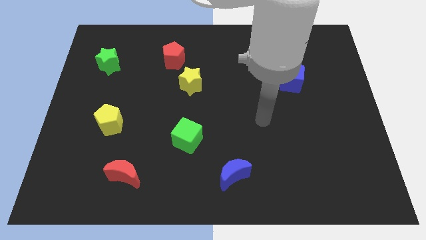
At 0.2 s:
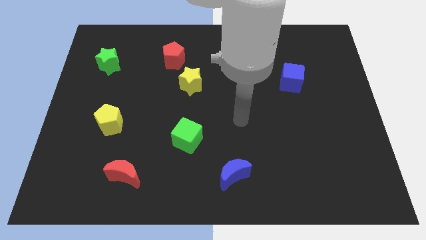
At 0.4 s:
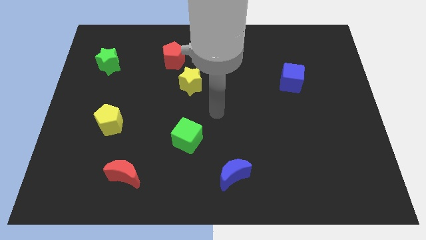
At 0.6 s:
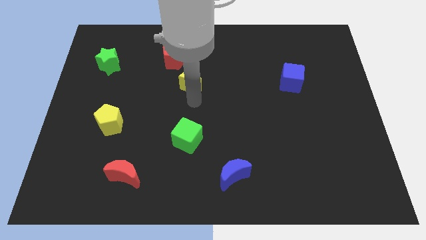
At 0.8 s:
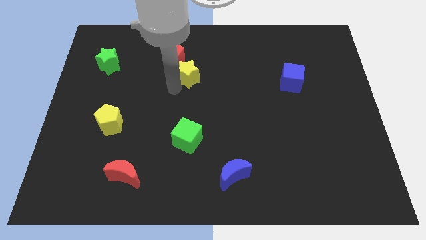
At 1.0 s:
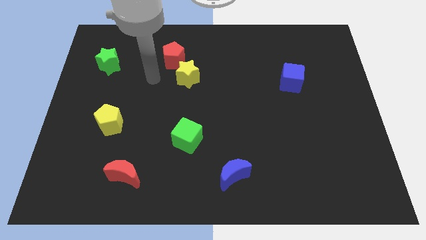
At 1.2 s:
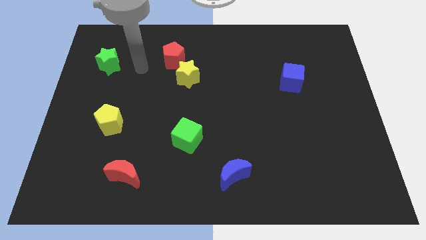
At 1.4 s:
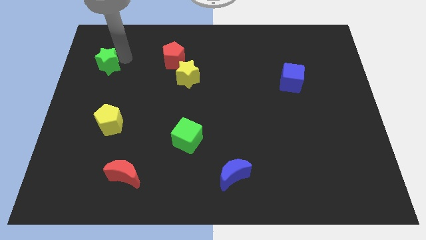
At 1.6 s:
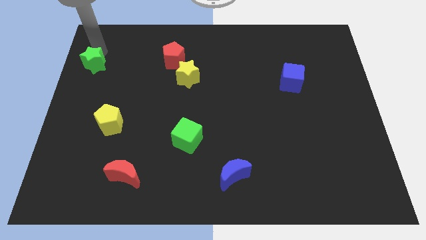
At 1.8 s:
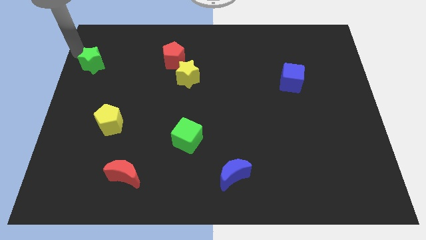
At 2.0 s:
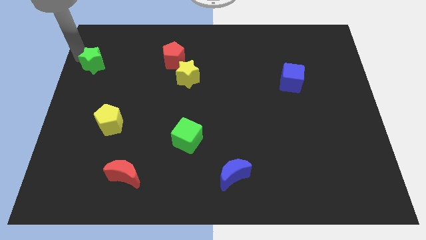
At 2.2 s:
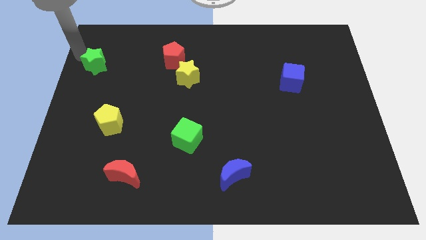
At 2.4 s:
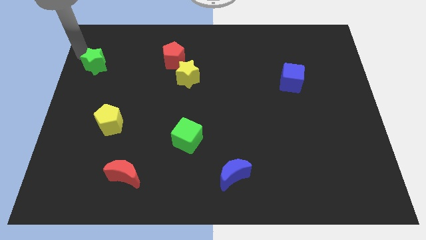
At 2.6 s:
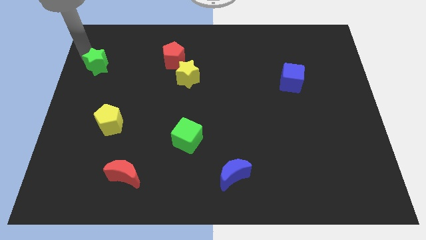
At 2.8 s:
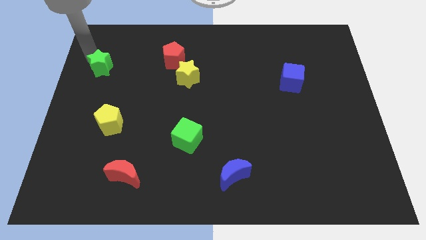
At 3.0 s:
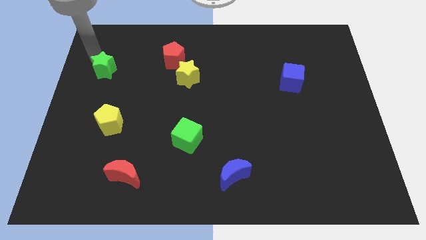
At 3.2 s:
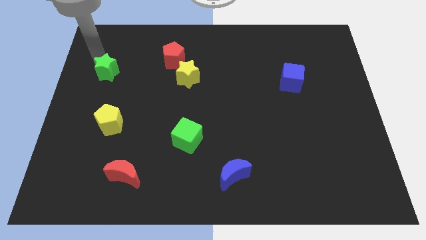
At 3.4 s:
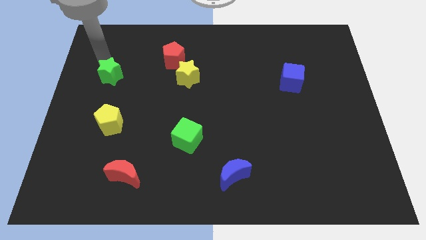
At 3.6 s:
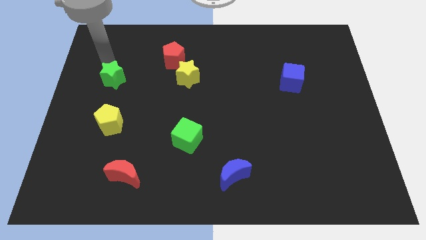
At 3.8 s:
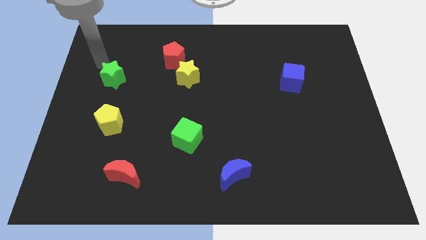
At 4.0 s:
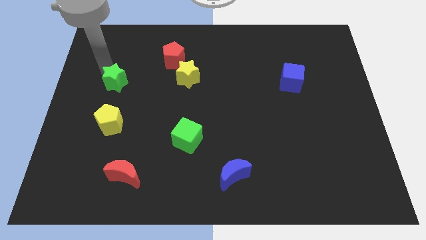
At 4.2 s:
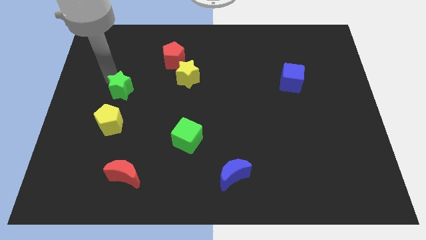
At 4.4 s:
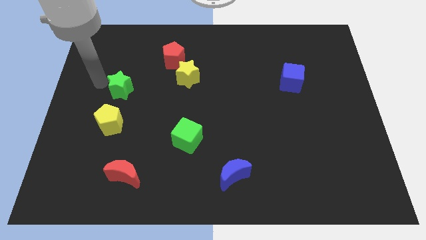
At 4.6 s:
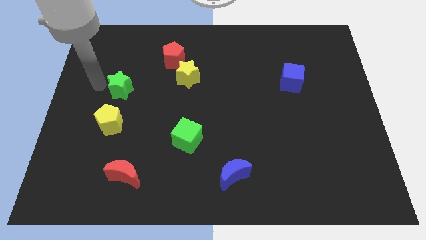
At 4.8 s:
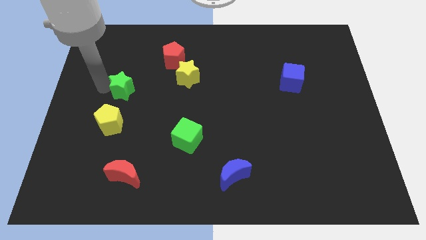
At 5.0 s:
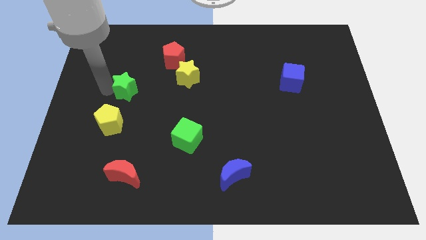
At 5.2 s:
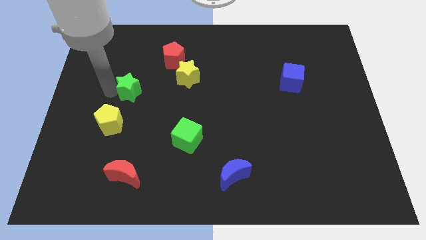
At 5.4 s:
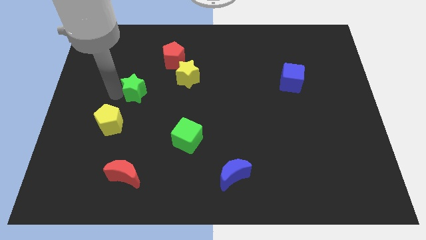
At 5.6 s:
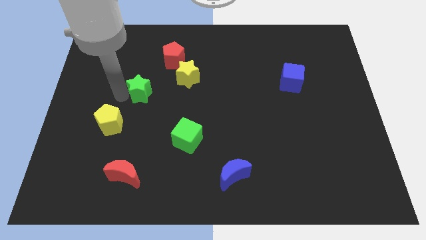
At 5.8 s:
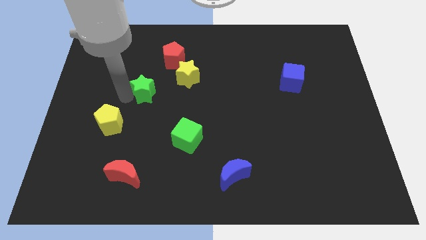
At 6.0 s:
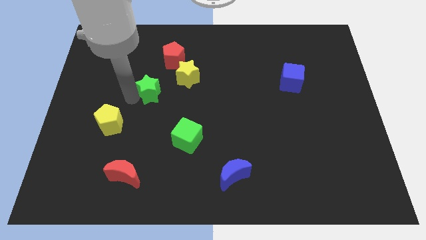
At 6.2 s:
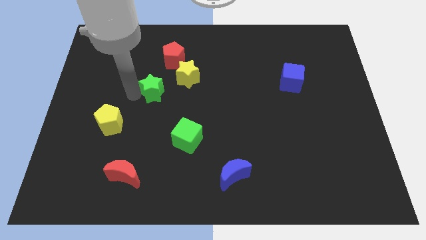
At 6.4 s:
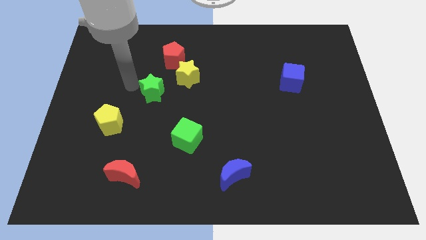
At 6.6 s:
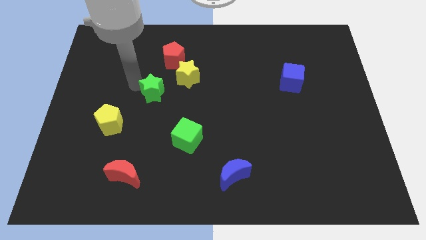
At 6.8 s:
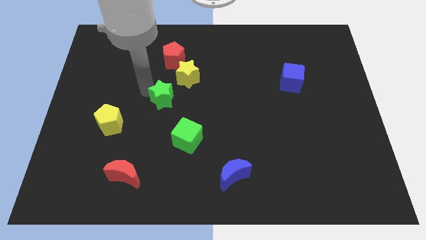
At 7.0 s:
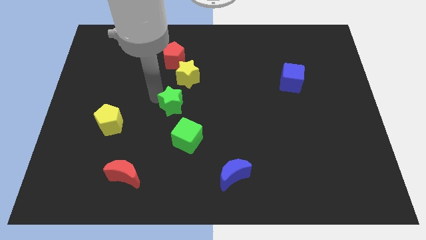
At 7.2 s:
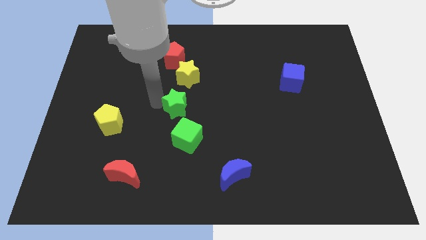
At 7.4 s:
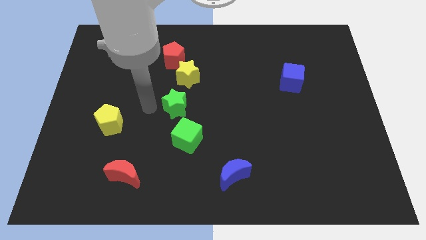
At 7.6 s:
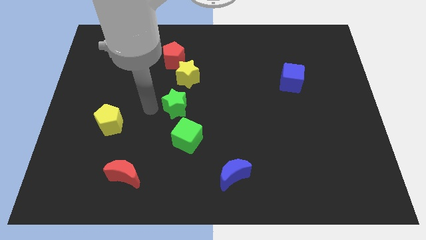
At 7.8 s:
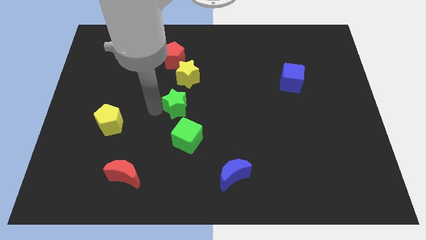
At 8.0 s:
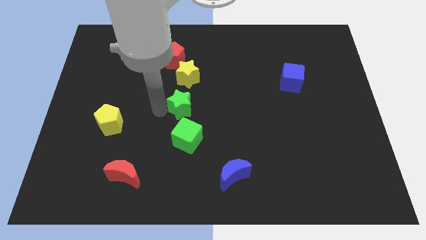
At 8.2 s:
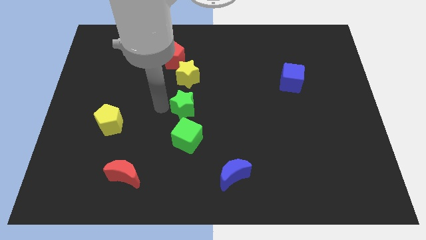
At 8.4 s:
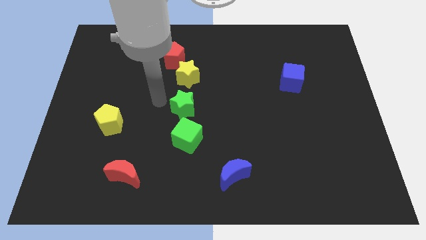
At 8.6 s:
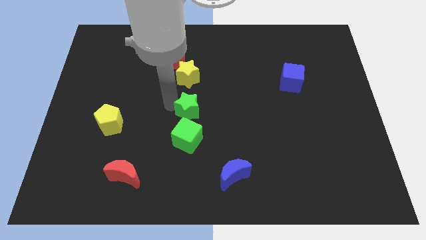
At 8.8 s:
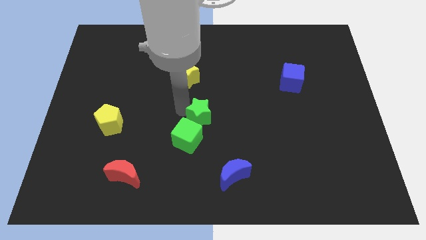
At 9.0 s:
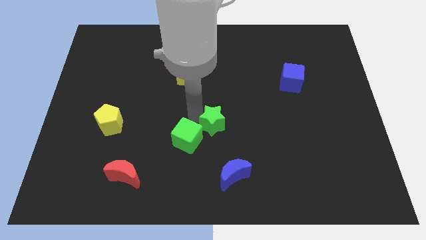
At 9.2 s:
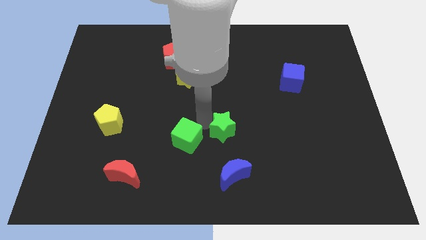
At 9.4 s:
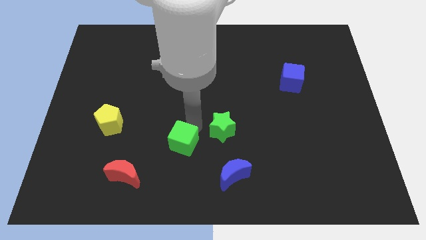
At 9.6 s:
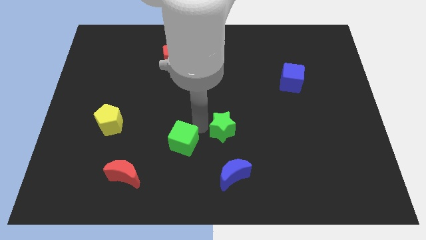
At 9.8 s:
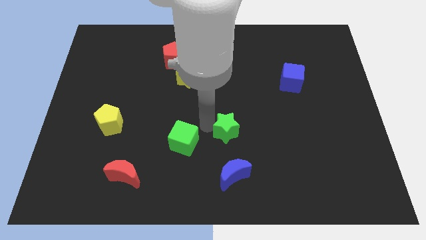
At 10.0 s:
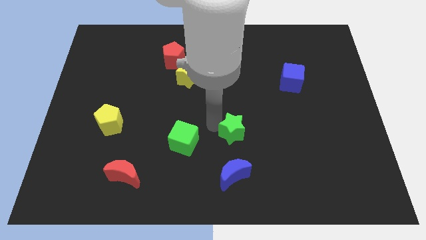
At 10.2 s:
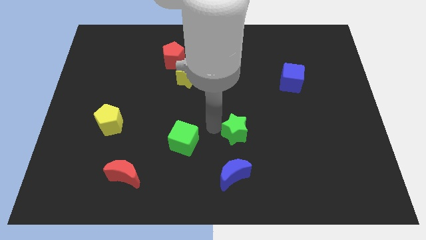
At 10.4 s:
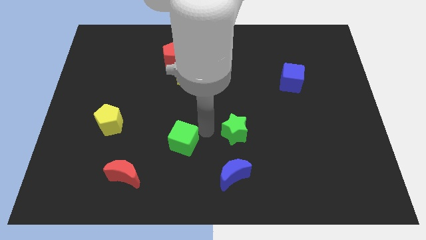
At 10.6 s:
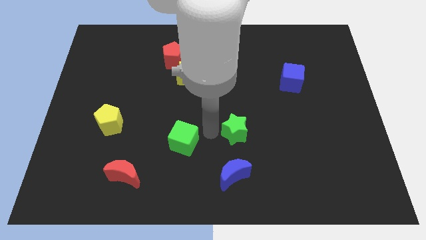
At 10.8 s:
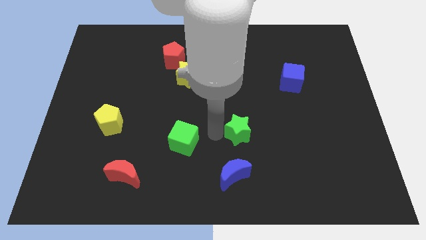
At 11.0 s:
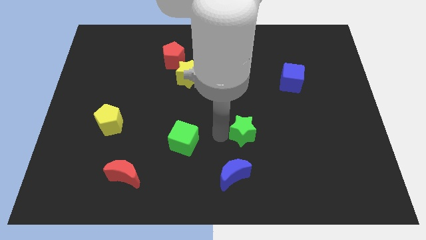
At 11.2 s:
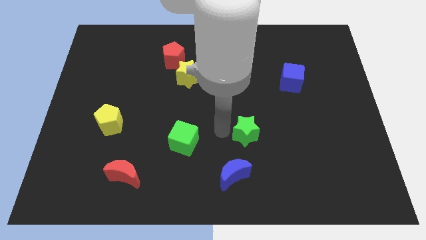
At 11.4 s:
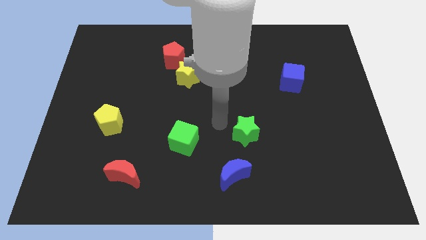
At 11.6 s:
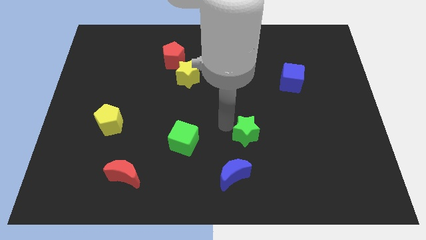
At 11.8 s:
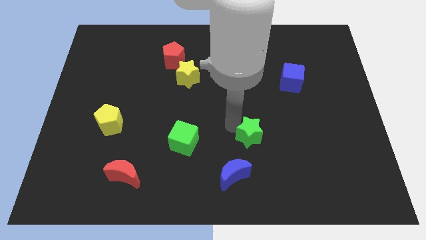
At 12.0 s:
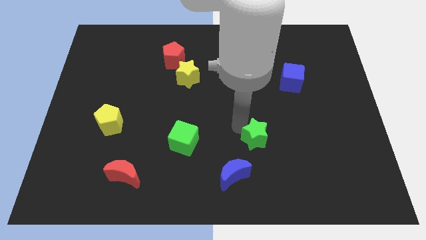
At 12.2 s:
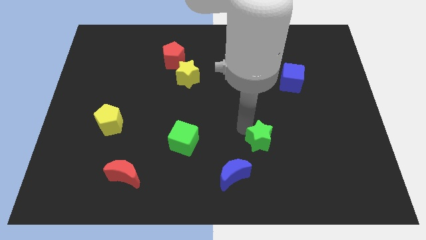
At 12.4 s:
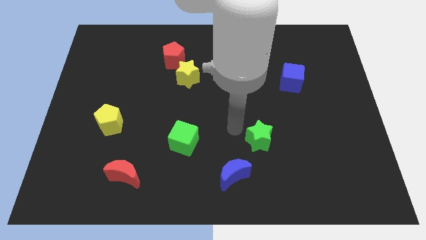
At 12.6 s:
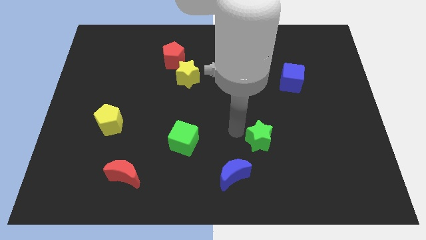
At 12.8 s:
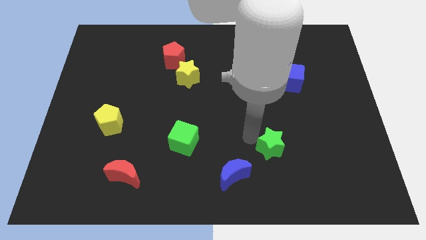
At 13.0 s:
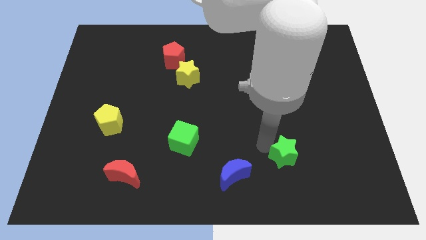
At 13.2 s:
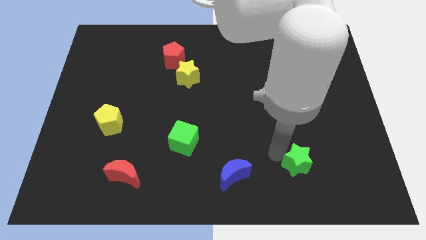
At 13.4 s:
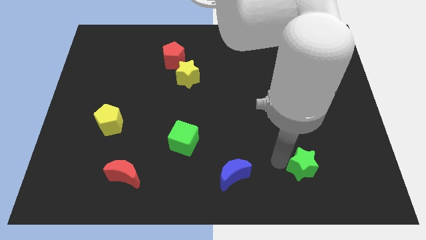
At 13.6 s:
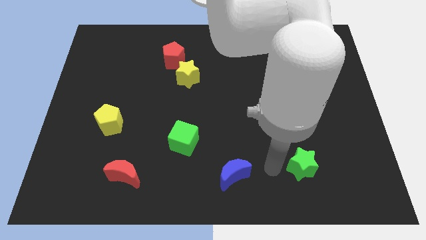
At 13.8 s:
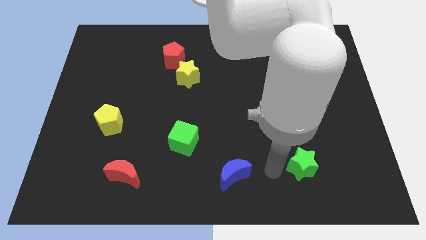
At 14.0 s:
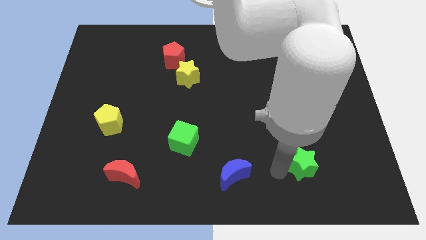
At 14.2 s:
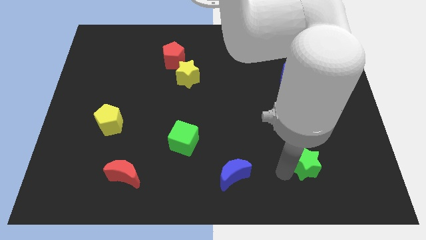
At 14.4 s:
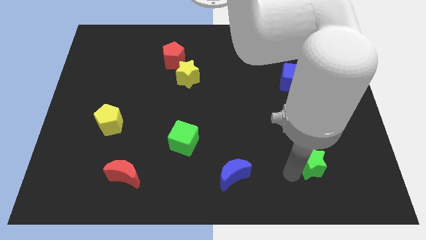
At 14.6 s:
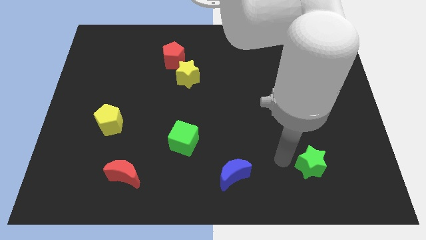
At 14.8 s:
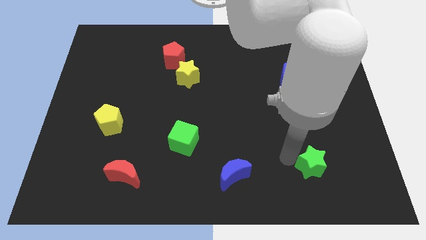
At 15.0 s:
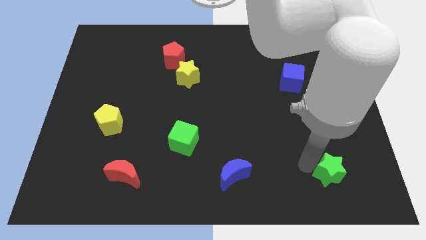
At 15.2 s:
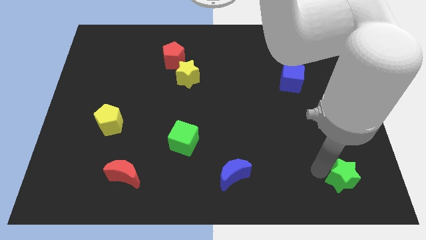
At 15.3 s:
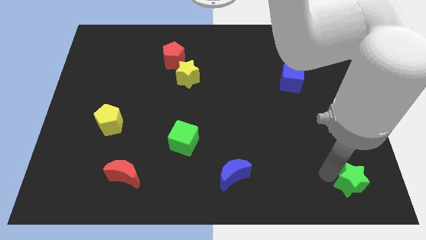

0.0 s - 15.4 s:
put the green star to the bottom right corner
